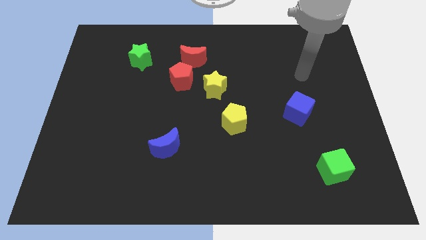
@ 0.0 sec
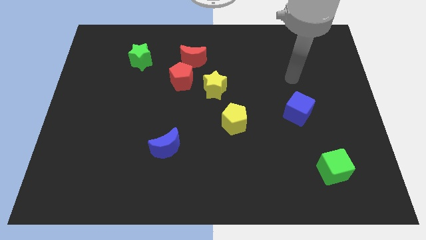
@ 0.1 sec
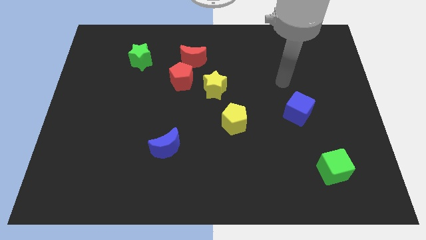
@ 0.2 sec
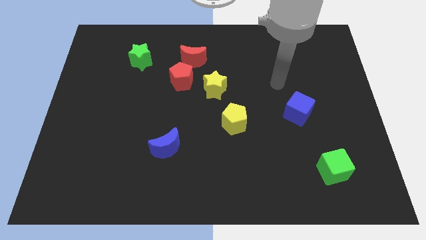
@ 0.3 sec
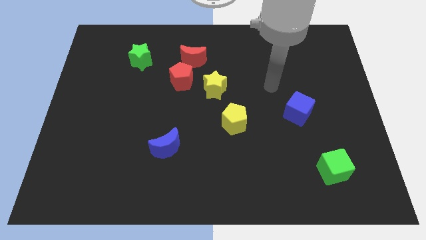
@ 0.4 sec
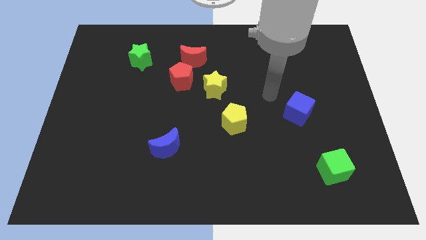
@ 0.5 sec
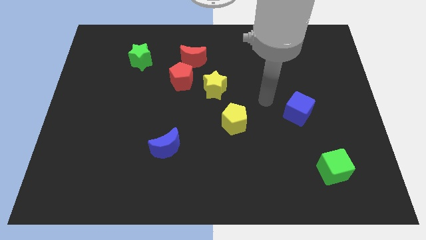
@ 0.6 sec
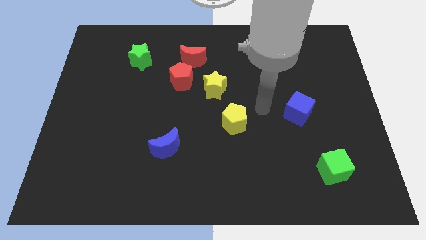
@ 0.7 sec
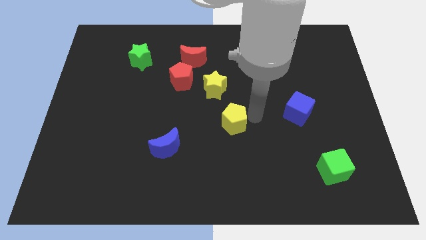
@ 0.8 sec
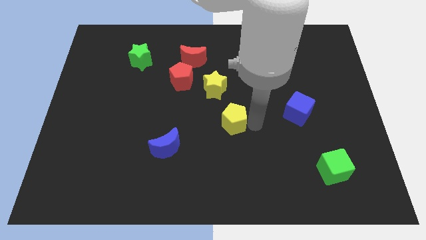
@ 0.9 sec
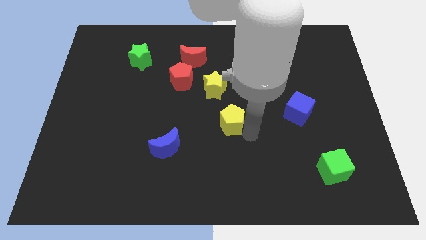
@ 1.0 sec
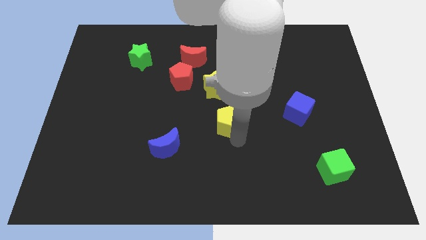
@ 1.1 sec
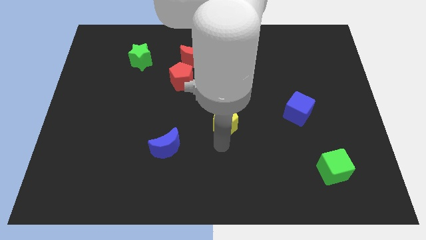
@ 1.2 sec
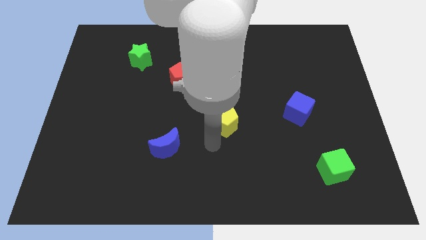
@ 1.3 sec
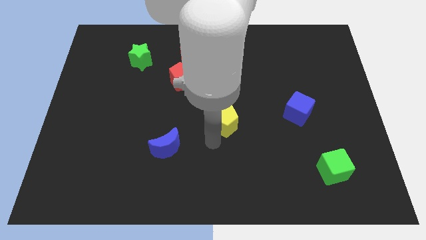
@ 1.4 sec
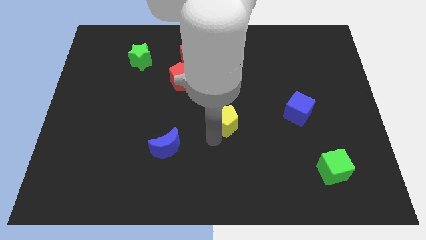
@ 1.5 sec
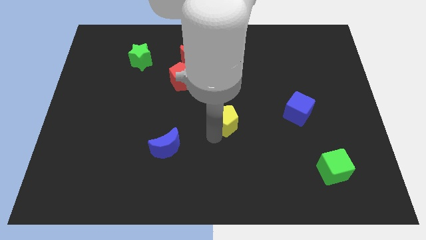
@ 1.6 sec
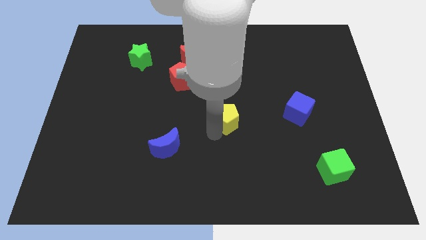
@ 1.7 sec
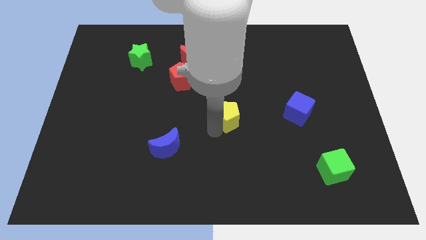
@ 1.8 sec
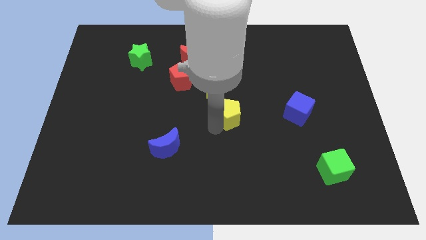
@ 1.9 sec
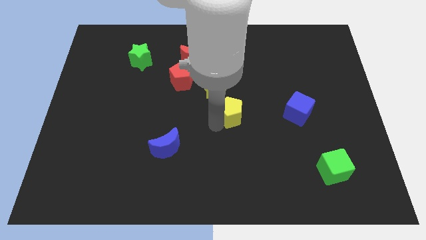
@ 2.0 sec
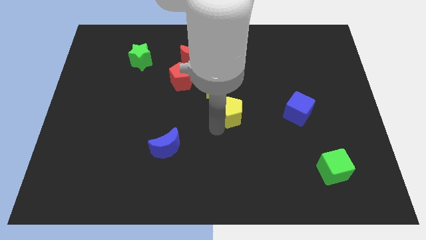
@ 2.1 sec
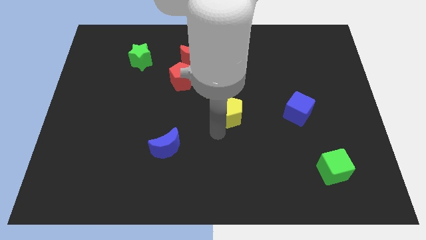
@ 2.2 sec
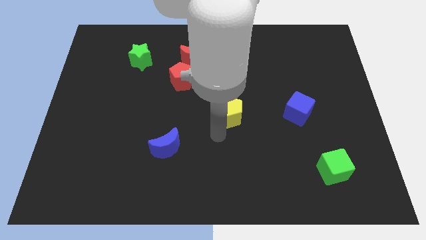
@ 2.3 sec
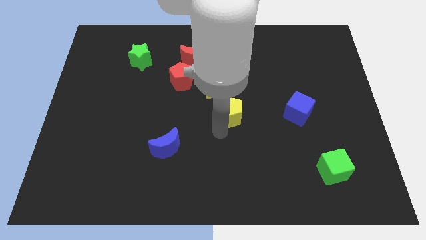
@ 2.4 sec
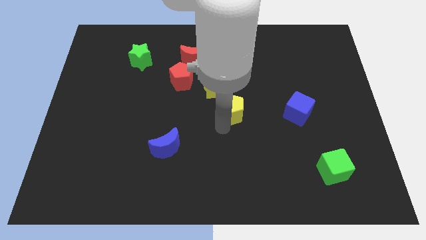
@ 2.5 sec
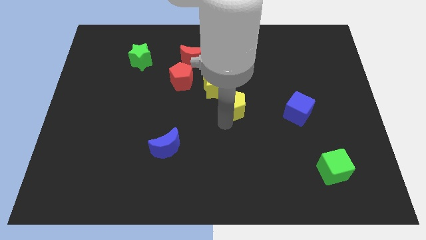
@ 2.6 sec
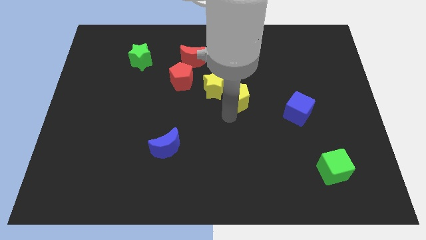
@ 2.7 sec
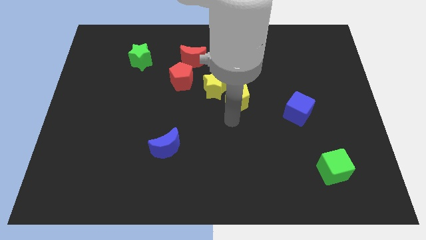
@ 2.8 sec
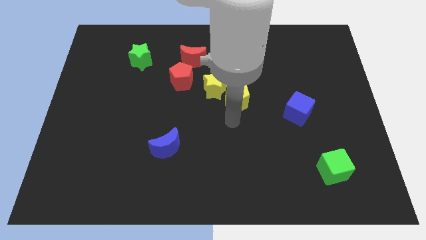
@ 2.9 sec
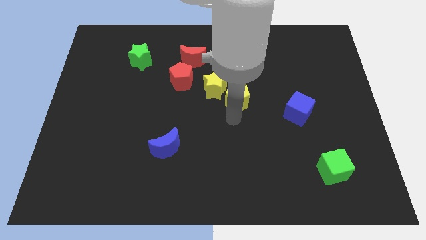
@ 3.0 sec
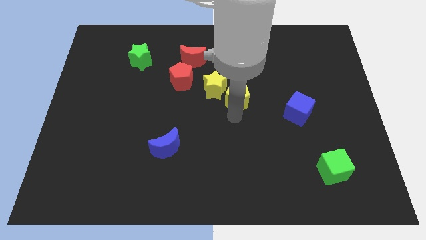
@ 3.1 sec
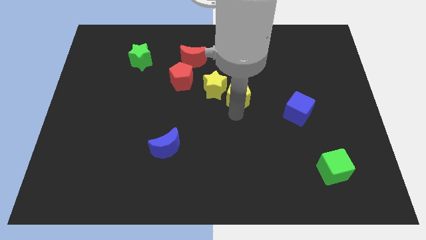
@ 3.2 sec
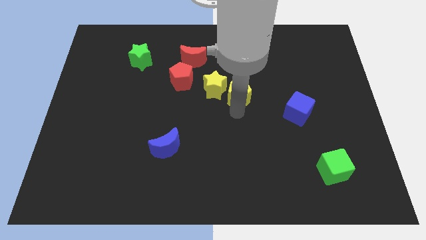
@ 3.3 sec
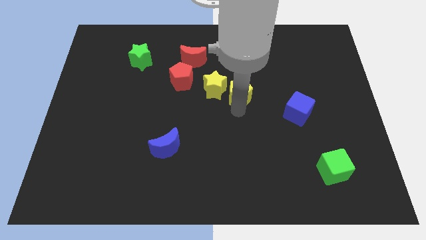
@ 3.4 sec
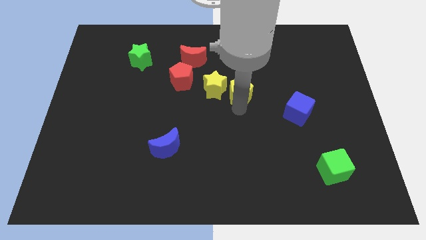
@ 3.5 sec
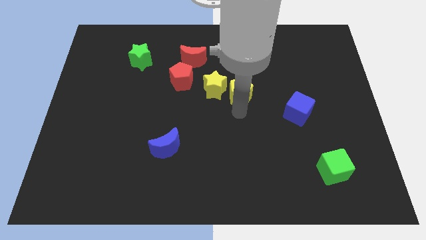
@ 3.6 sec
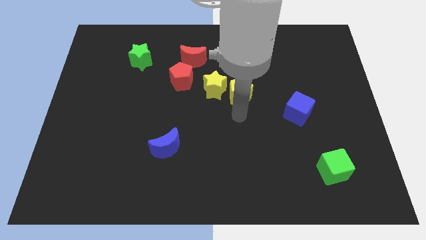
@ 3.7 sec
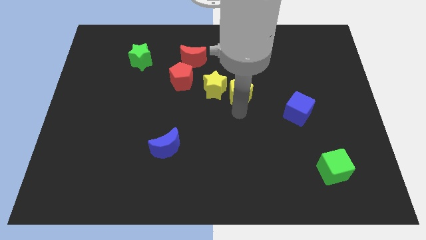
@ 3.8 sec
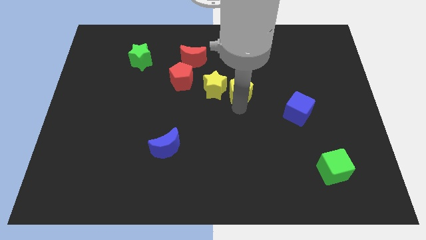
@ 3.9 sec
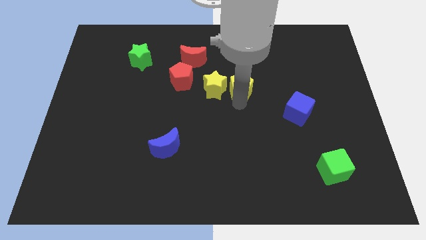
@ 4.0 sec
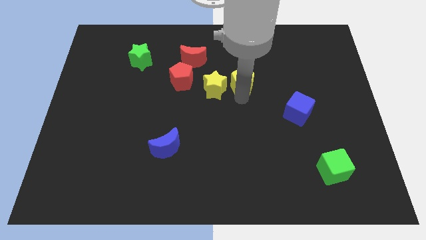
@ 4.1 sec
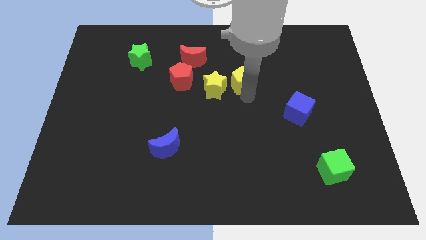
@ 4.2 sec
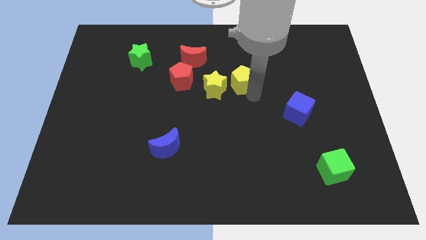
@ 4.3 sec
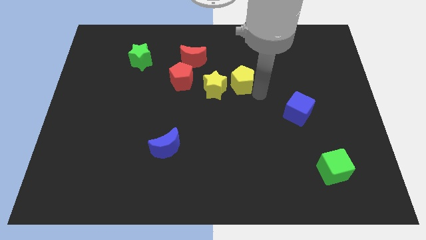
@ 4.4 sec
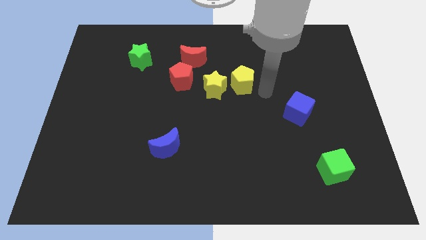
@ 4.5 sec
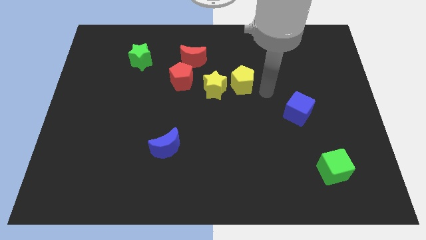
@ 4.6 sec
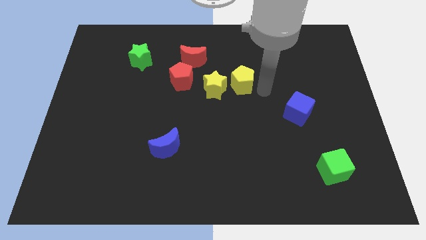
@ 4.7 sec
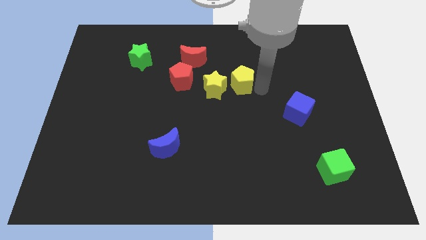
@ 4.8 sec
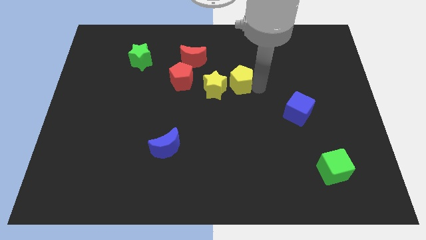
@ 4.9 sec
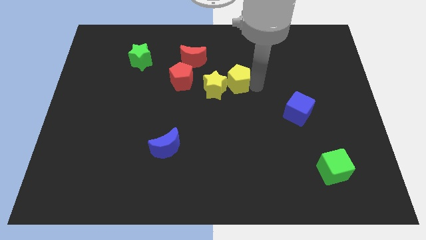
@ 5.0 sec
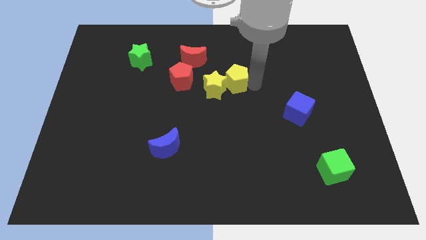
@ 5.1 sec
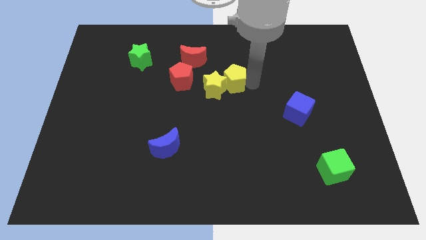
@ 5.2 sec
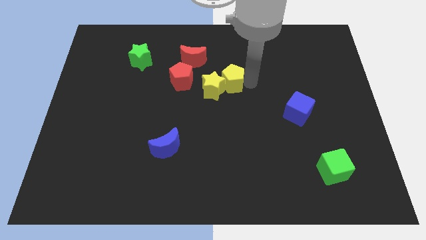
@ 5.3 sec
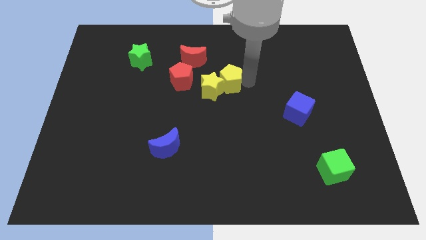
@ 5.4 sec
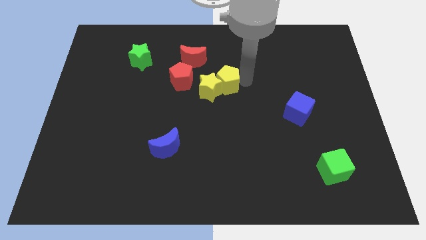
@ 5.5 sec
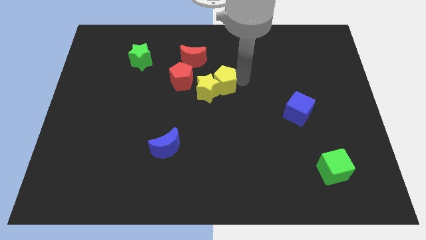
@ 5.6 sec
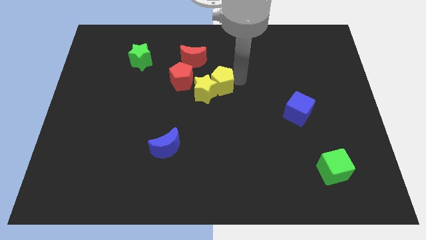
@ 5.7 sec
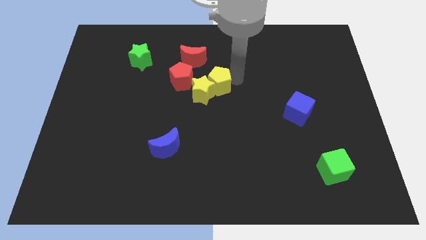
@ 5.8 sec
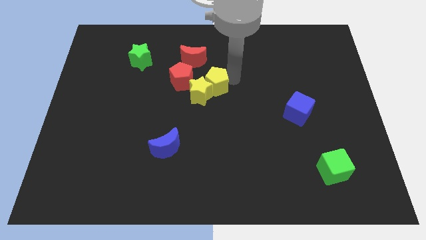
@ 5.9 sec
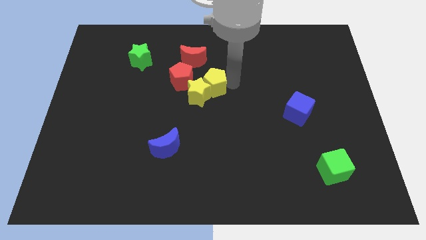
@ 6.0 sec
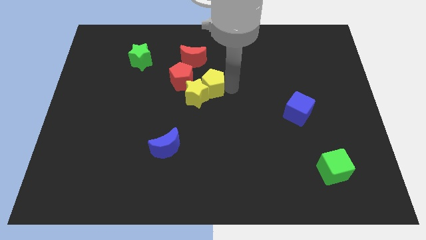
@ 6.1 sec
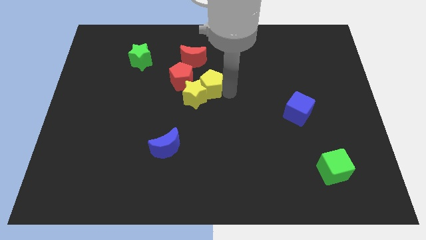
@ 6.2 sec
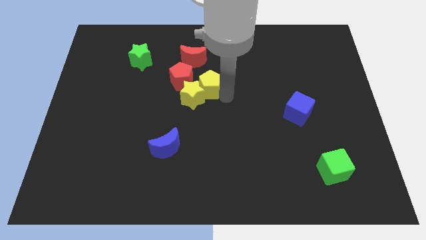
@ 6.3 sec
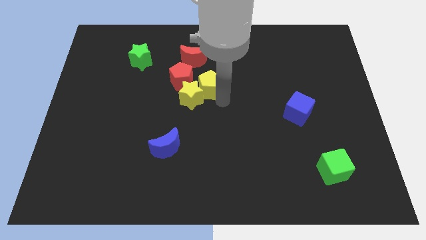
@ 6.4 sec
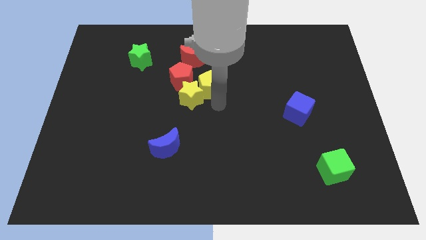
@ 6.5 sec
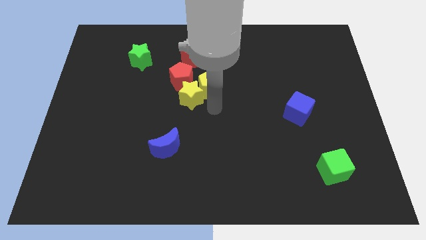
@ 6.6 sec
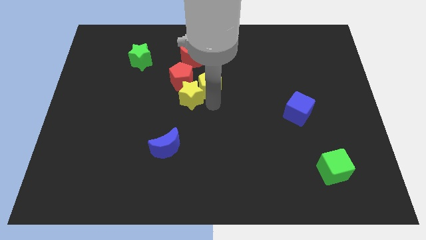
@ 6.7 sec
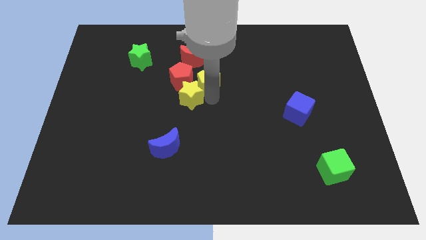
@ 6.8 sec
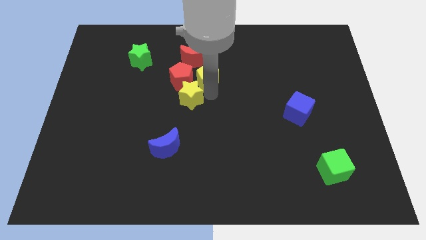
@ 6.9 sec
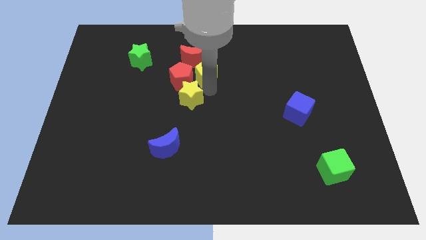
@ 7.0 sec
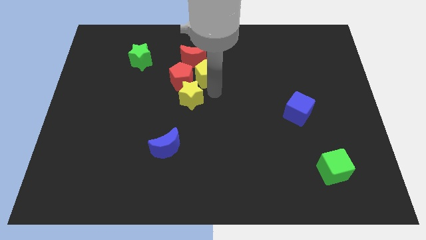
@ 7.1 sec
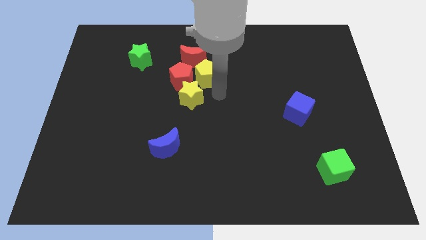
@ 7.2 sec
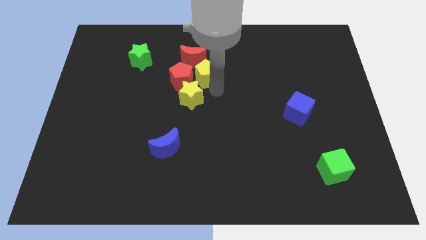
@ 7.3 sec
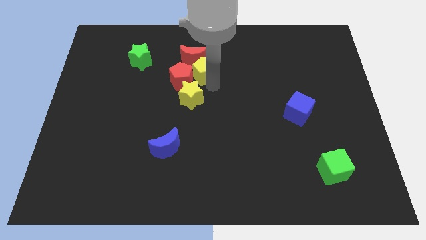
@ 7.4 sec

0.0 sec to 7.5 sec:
slide the yellow pentagon next to the red moon

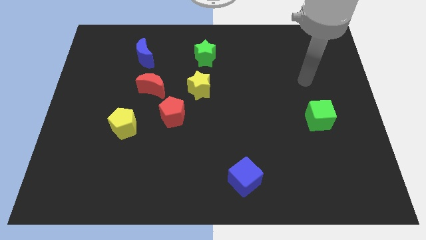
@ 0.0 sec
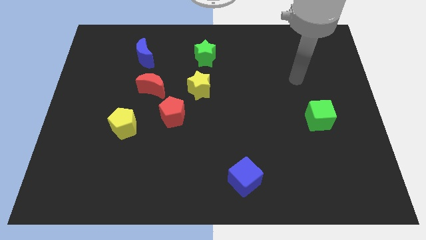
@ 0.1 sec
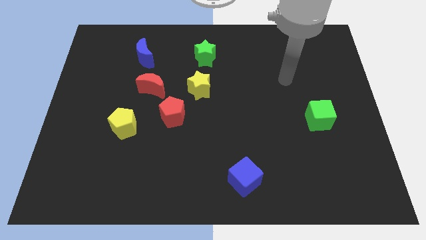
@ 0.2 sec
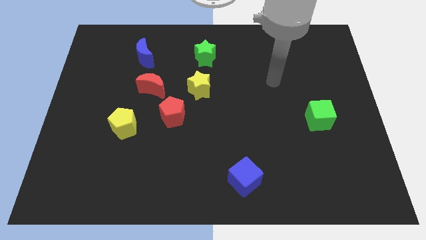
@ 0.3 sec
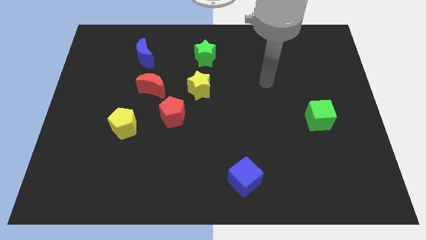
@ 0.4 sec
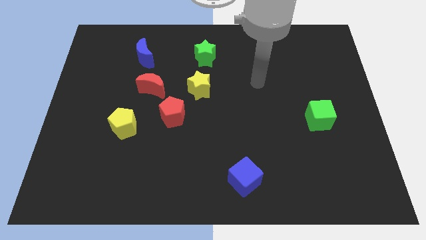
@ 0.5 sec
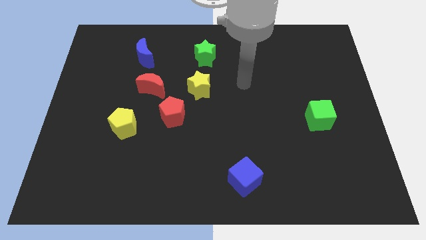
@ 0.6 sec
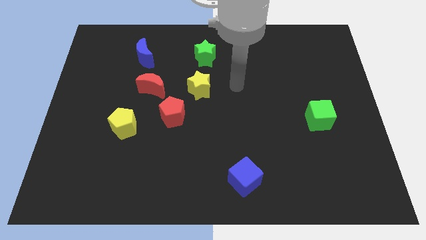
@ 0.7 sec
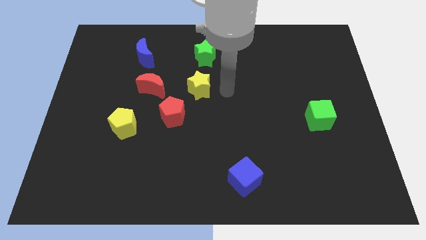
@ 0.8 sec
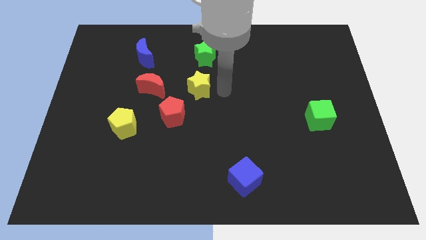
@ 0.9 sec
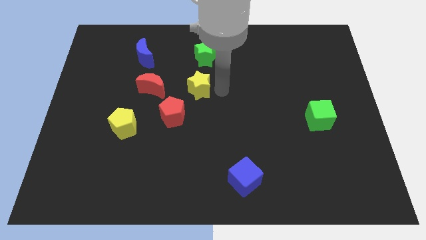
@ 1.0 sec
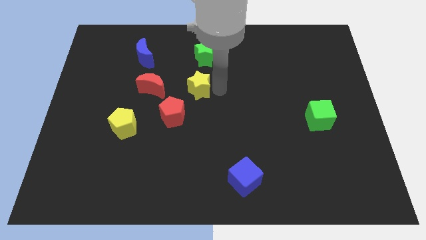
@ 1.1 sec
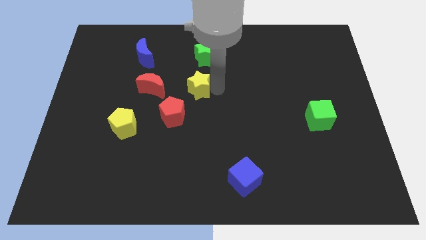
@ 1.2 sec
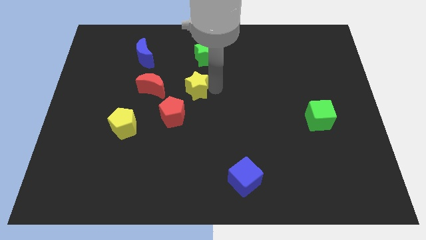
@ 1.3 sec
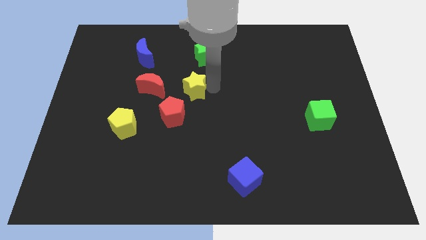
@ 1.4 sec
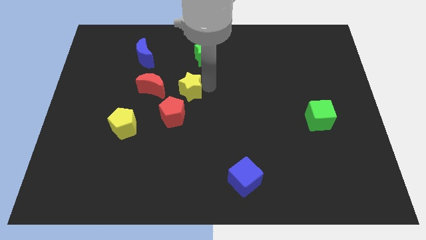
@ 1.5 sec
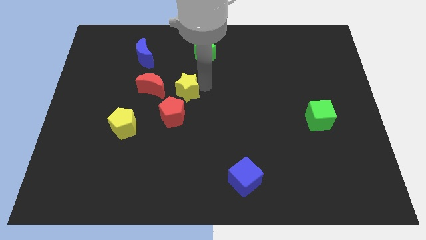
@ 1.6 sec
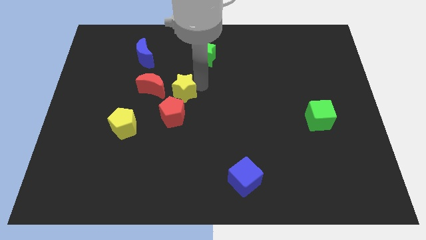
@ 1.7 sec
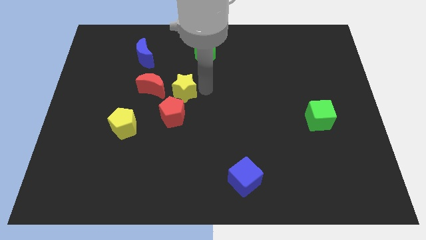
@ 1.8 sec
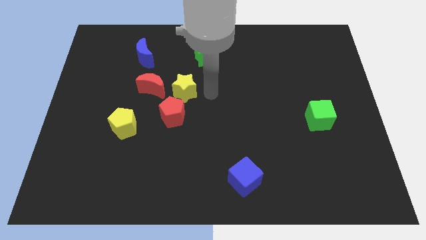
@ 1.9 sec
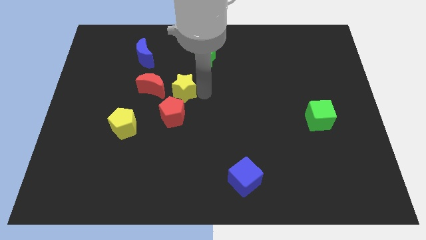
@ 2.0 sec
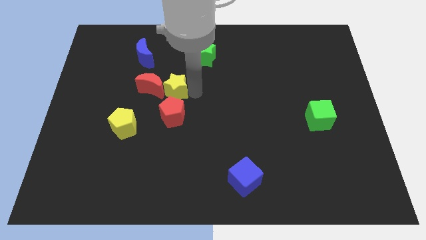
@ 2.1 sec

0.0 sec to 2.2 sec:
slide the yellow star to the red moon
